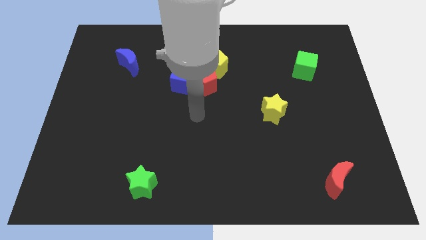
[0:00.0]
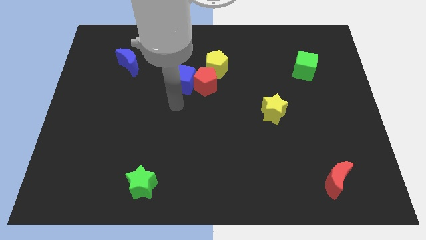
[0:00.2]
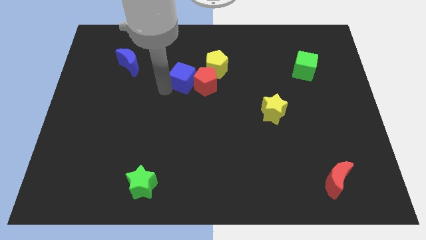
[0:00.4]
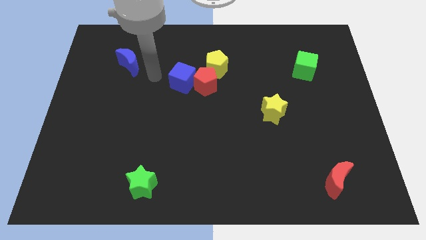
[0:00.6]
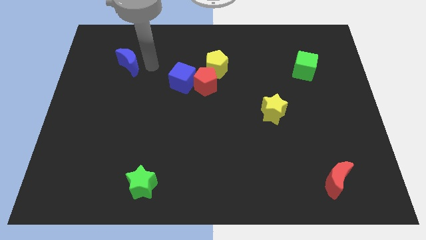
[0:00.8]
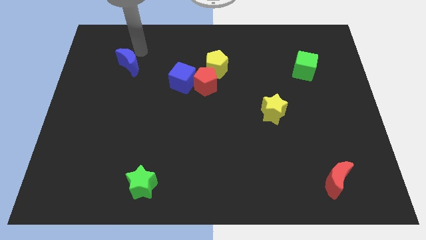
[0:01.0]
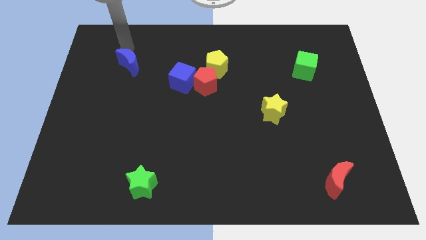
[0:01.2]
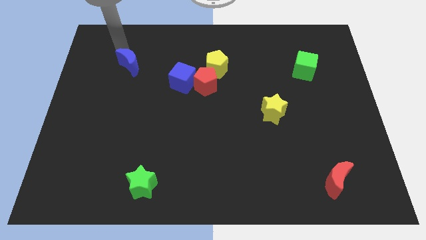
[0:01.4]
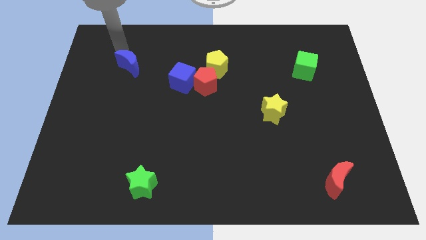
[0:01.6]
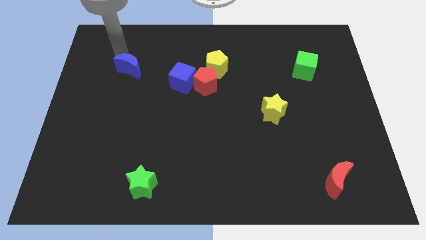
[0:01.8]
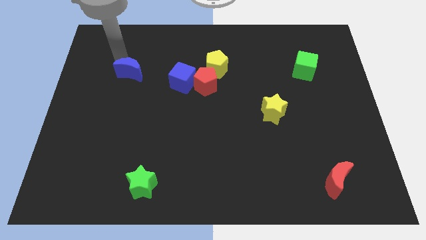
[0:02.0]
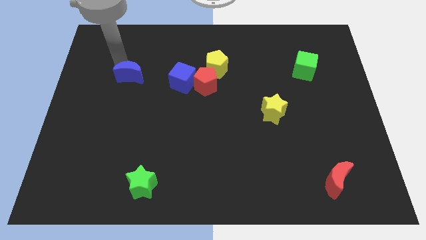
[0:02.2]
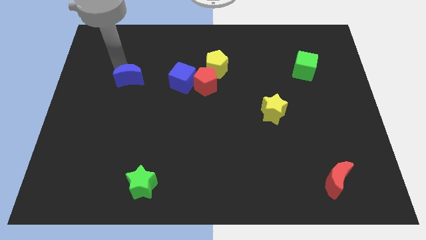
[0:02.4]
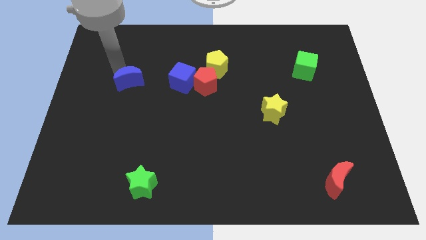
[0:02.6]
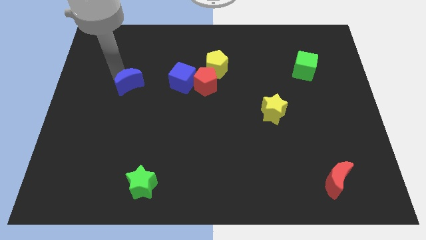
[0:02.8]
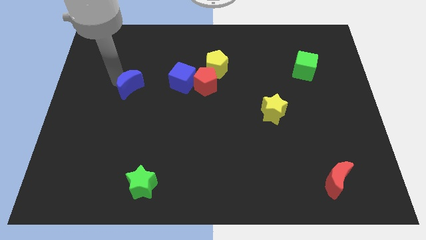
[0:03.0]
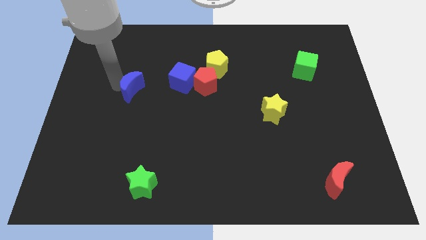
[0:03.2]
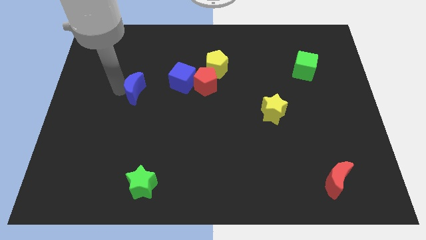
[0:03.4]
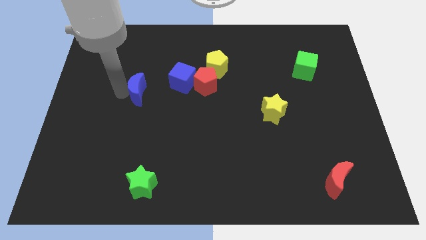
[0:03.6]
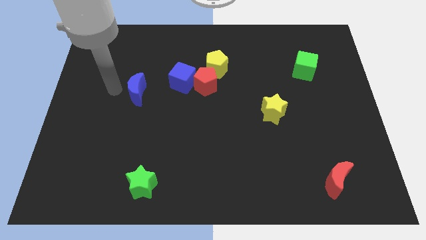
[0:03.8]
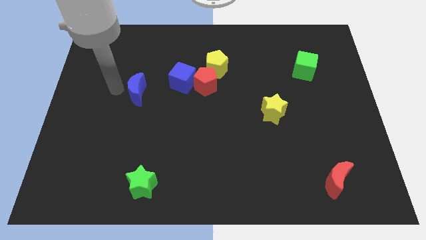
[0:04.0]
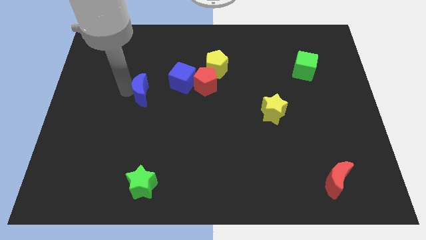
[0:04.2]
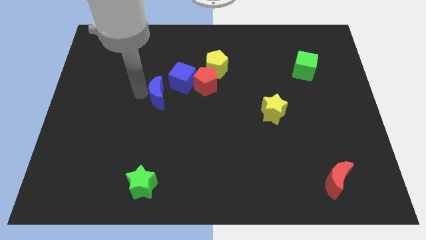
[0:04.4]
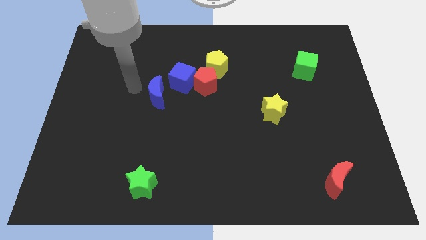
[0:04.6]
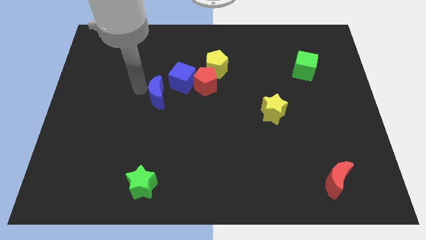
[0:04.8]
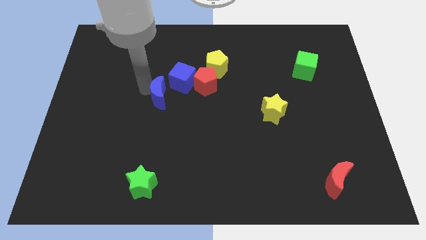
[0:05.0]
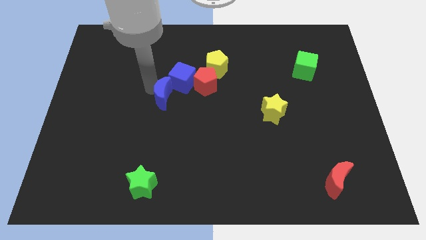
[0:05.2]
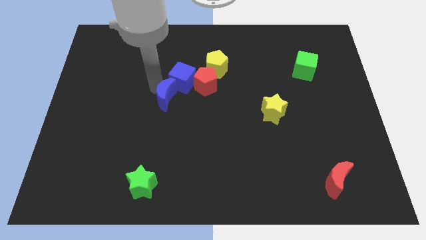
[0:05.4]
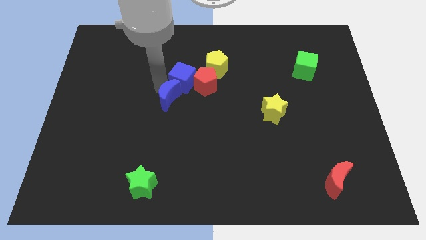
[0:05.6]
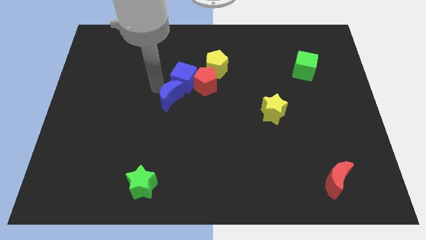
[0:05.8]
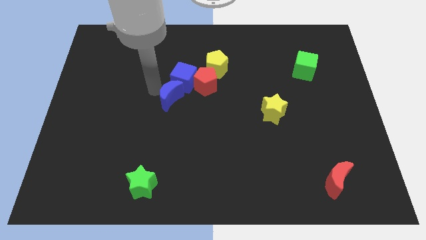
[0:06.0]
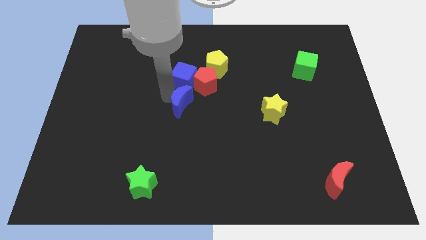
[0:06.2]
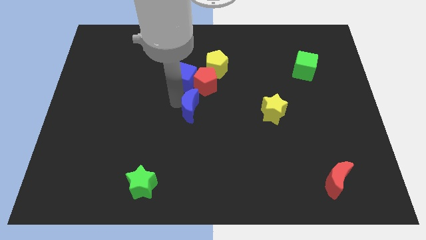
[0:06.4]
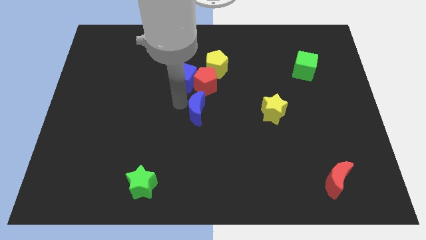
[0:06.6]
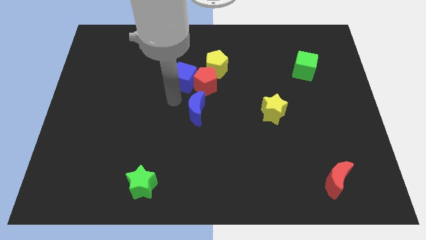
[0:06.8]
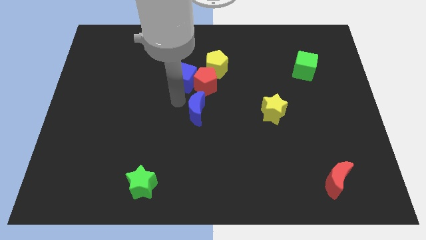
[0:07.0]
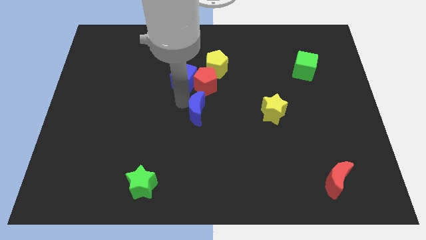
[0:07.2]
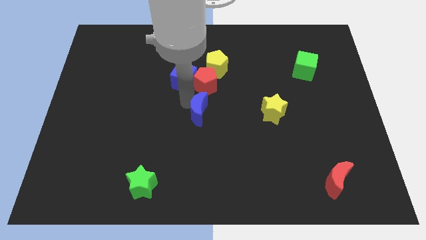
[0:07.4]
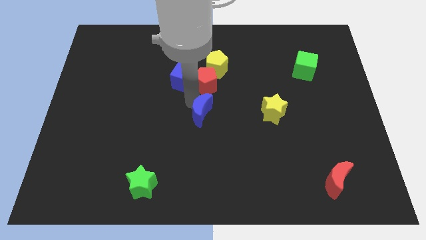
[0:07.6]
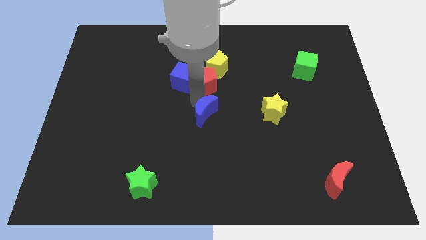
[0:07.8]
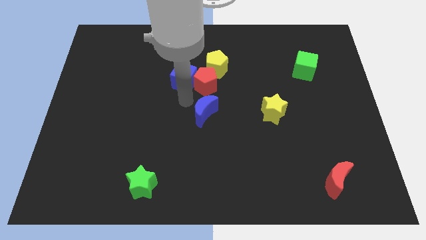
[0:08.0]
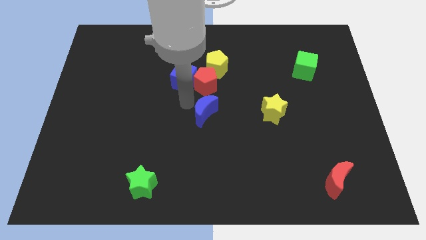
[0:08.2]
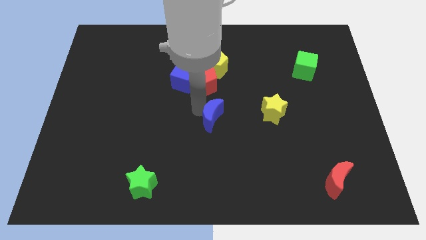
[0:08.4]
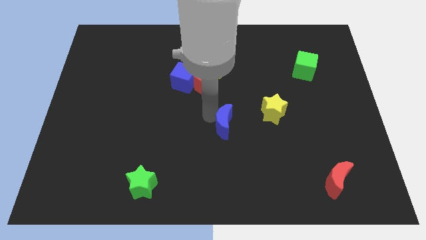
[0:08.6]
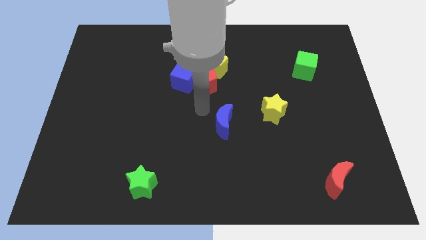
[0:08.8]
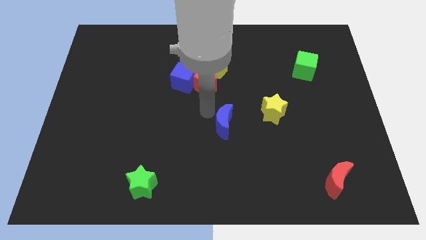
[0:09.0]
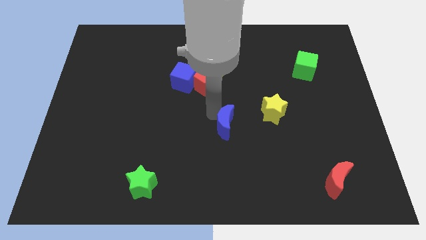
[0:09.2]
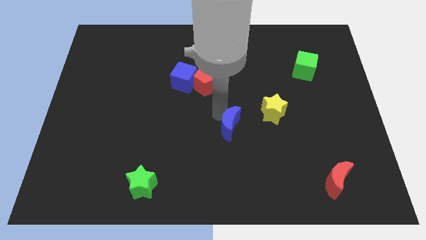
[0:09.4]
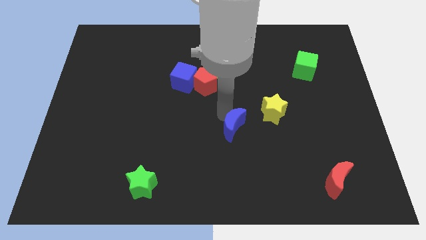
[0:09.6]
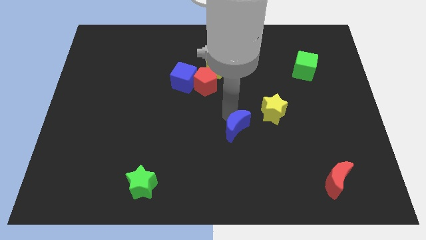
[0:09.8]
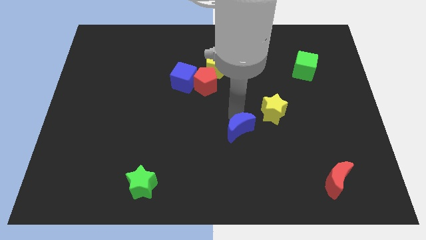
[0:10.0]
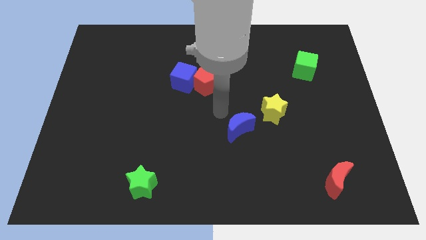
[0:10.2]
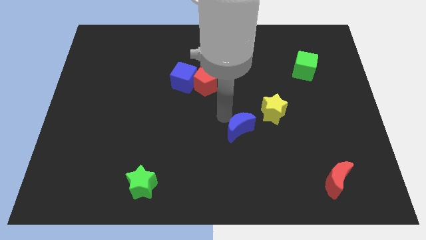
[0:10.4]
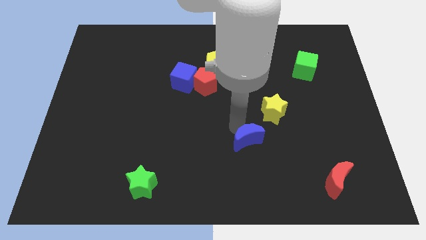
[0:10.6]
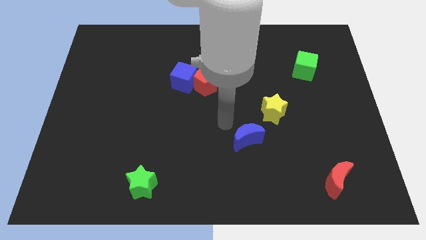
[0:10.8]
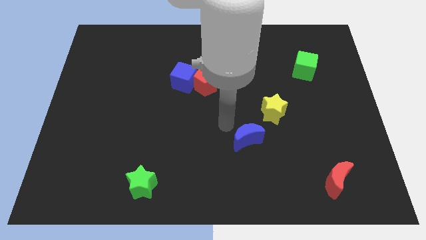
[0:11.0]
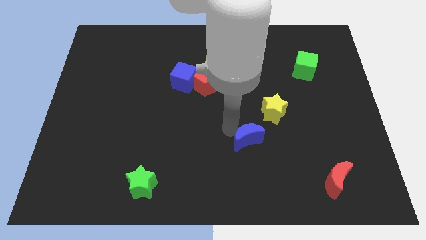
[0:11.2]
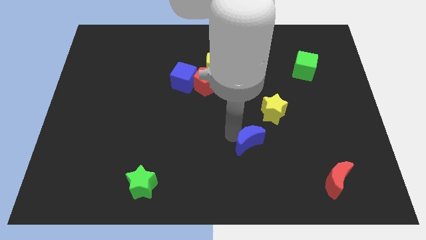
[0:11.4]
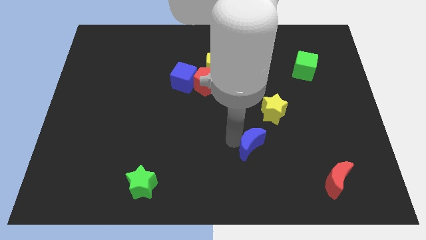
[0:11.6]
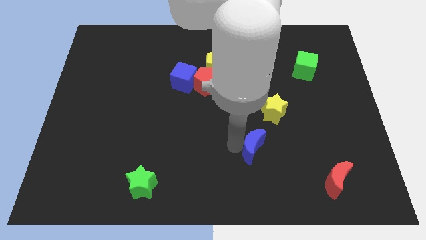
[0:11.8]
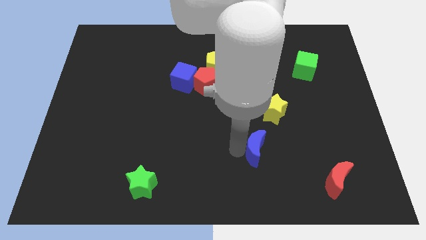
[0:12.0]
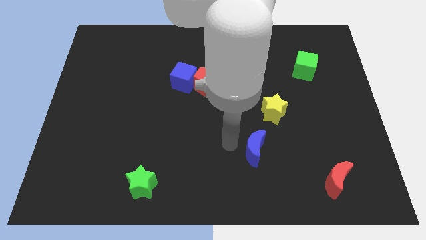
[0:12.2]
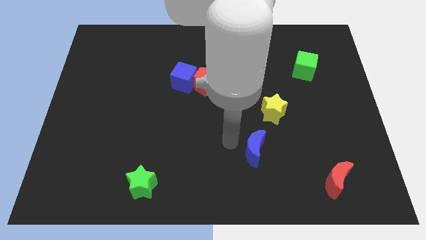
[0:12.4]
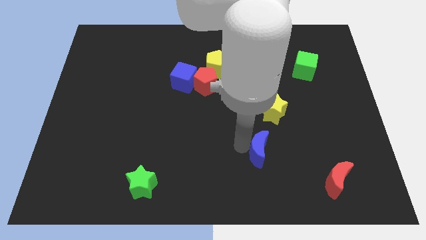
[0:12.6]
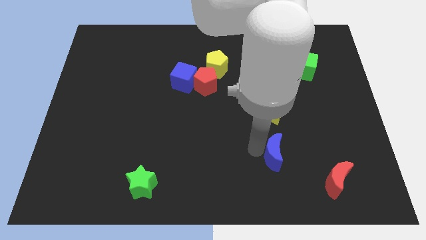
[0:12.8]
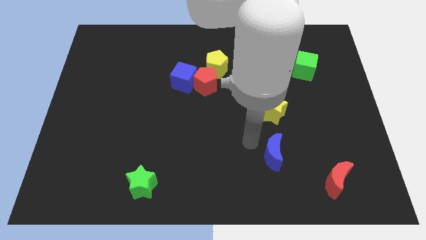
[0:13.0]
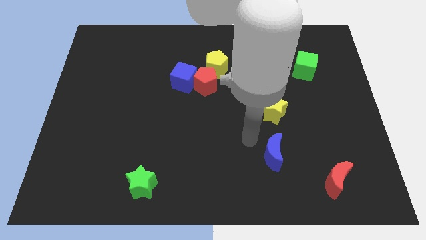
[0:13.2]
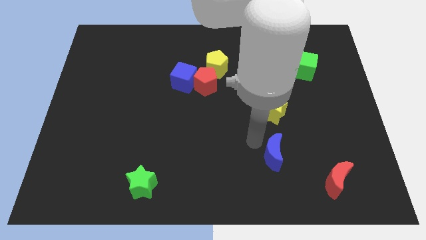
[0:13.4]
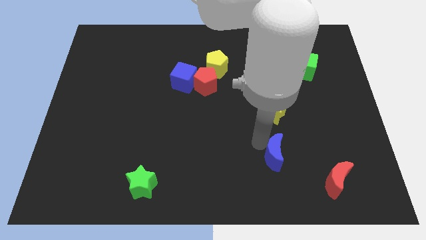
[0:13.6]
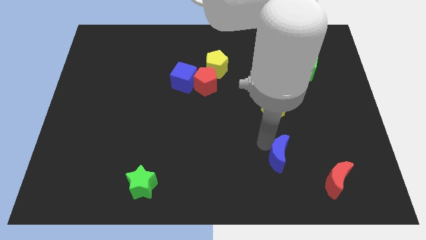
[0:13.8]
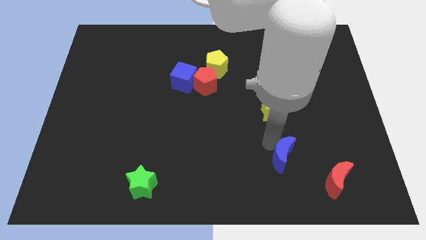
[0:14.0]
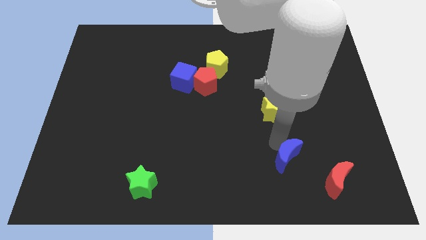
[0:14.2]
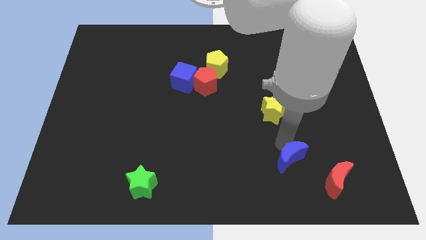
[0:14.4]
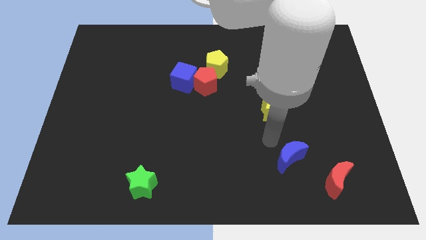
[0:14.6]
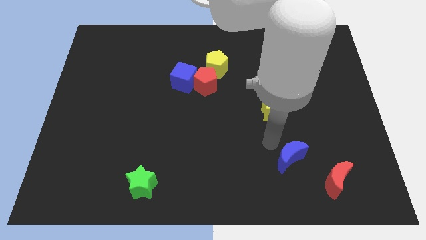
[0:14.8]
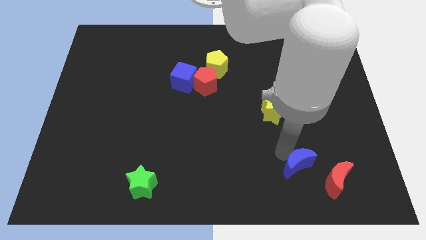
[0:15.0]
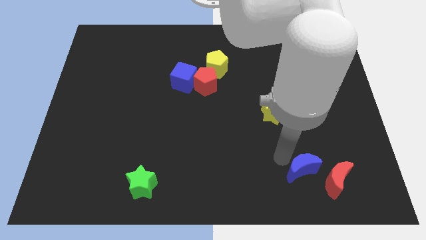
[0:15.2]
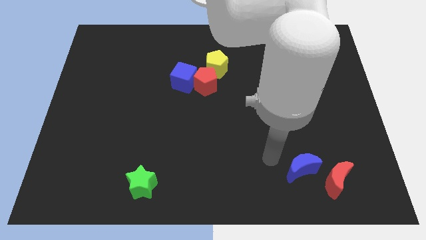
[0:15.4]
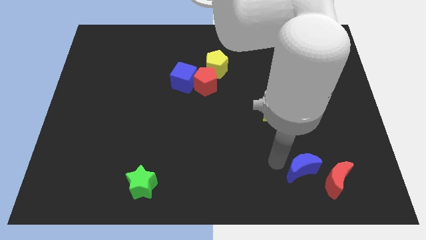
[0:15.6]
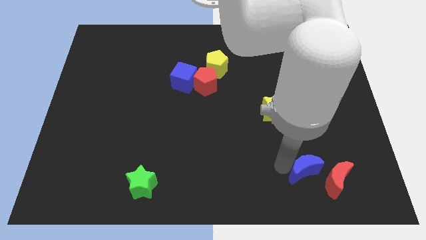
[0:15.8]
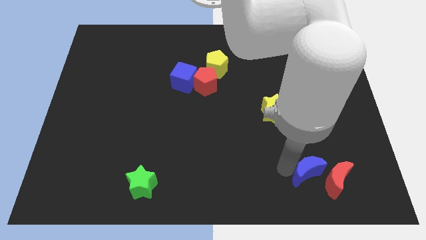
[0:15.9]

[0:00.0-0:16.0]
move the blue moon next to the red moon
